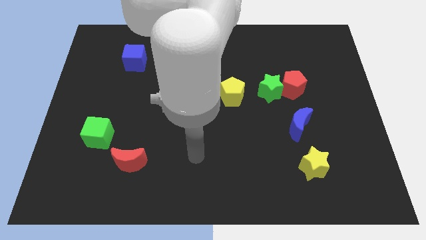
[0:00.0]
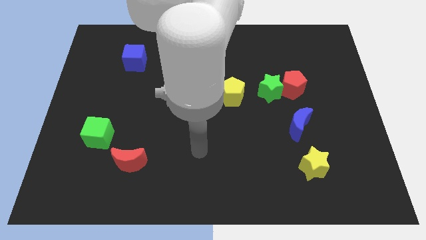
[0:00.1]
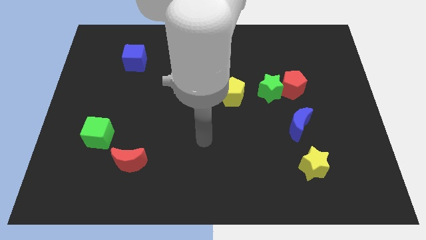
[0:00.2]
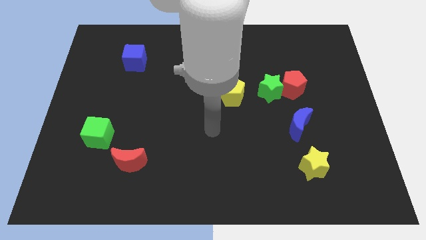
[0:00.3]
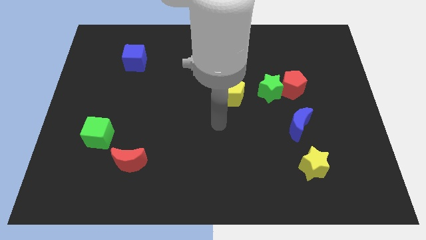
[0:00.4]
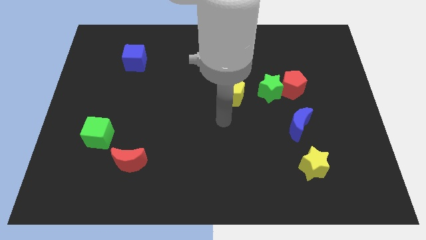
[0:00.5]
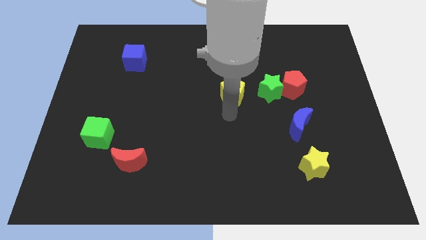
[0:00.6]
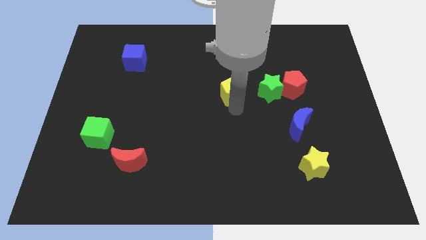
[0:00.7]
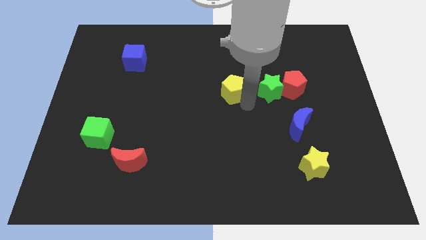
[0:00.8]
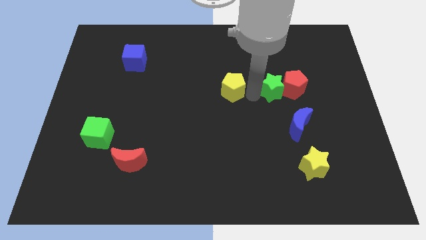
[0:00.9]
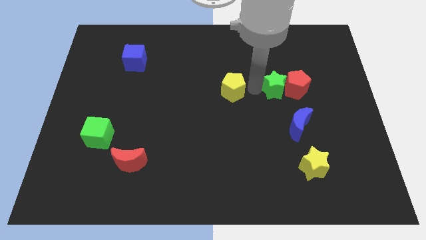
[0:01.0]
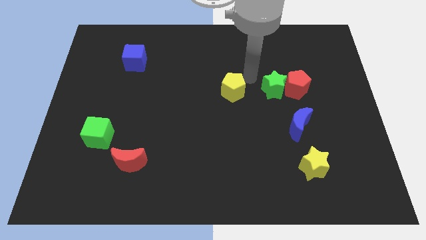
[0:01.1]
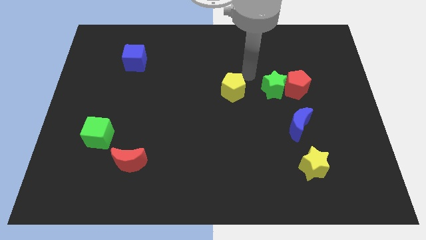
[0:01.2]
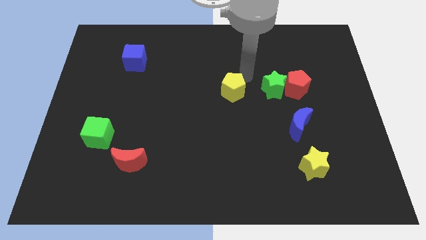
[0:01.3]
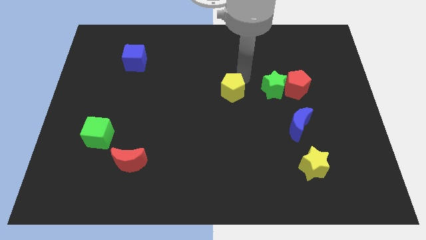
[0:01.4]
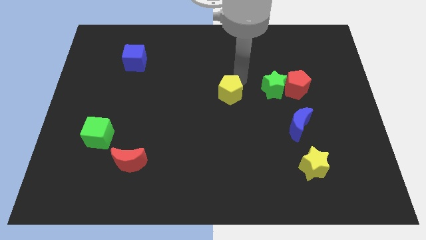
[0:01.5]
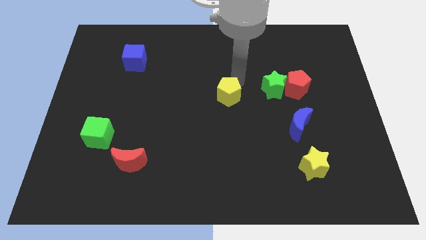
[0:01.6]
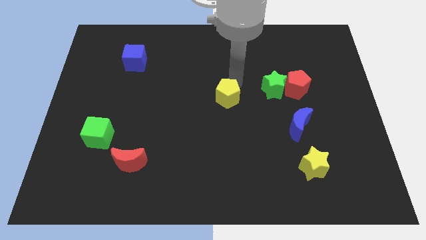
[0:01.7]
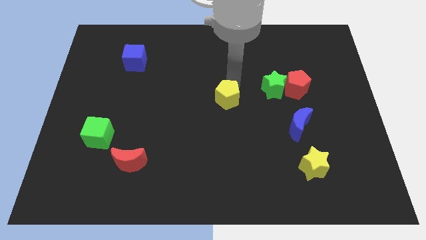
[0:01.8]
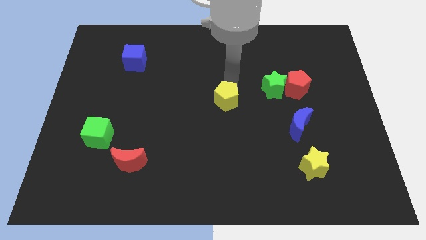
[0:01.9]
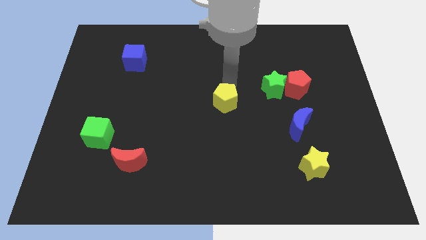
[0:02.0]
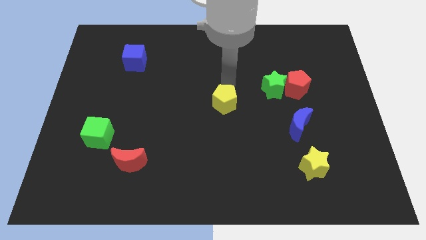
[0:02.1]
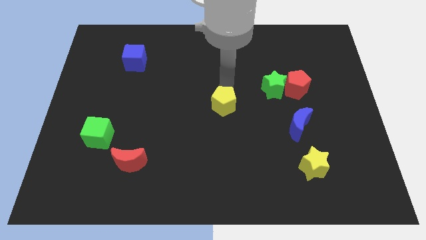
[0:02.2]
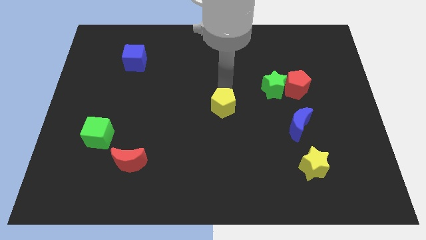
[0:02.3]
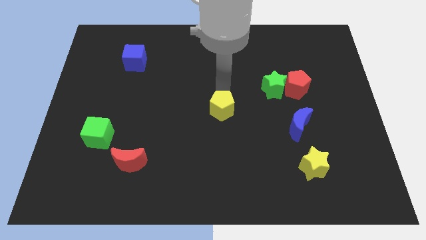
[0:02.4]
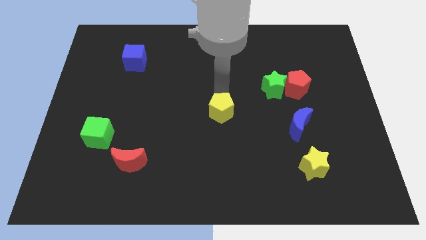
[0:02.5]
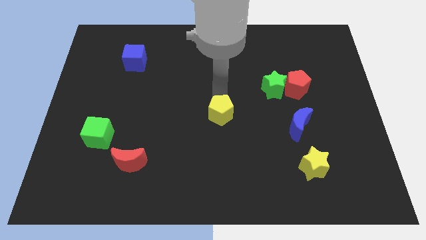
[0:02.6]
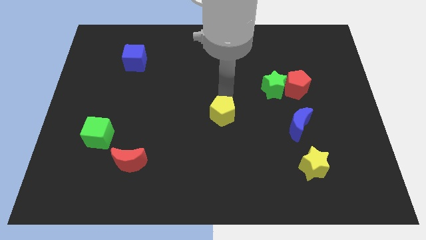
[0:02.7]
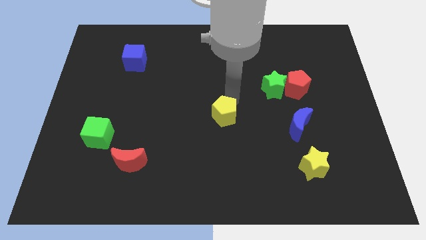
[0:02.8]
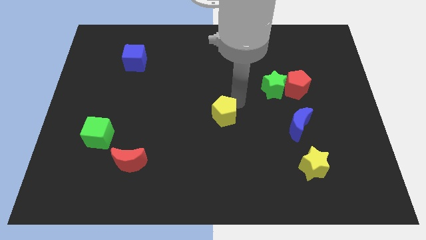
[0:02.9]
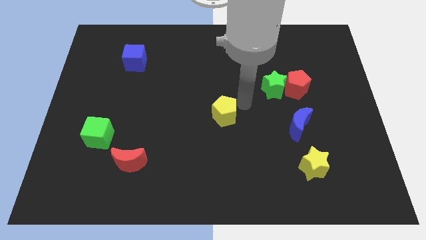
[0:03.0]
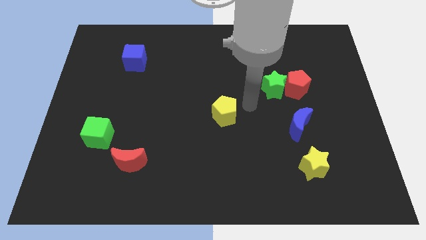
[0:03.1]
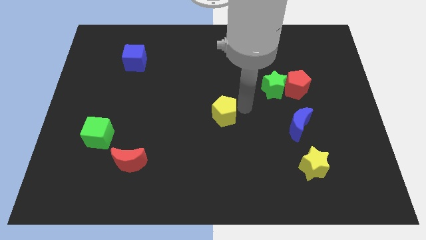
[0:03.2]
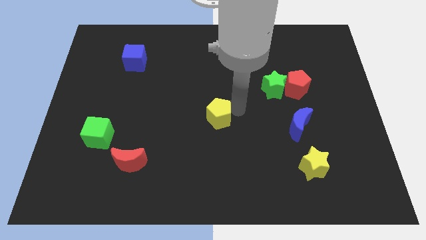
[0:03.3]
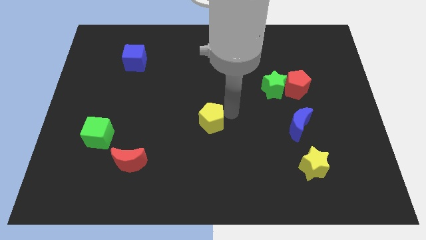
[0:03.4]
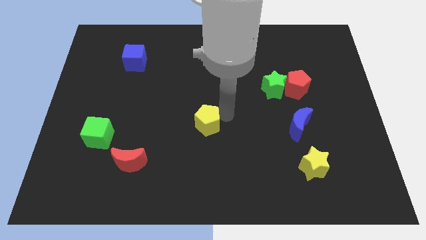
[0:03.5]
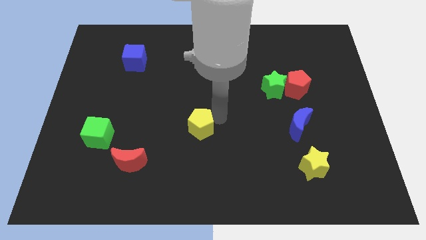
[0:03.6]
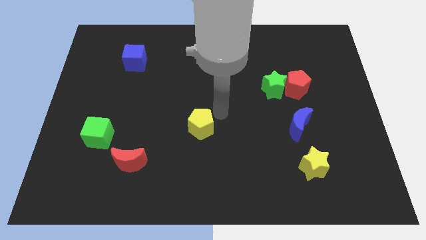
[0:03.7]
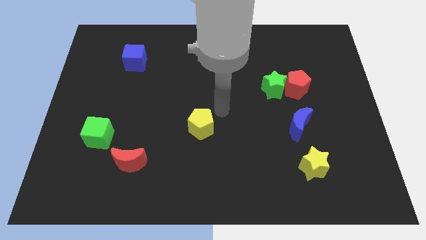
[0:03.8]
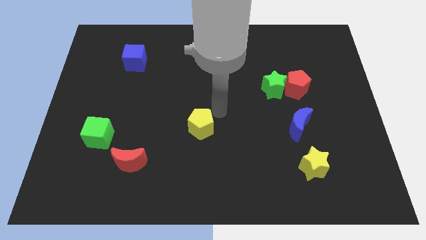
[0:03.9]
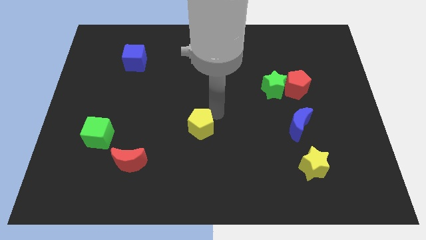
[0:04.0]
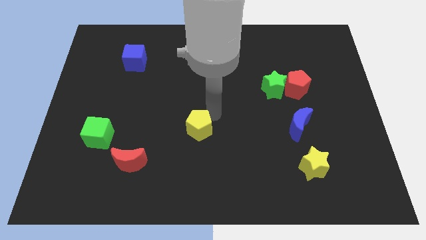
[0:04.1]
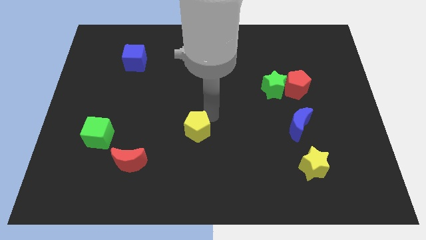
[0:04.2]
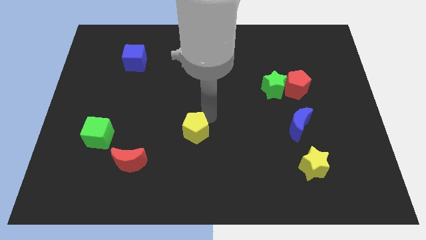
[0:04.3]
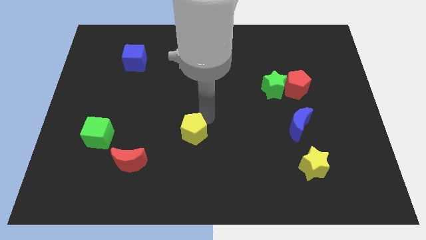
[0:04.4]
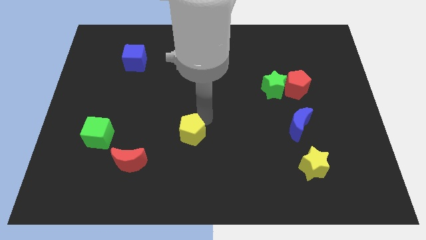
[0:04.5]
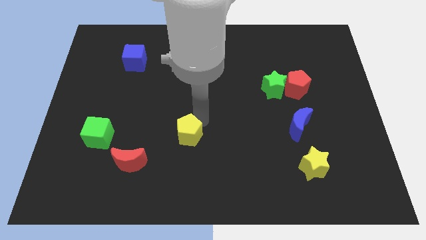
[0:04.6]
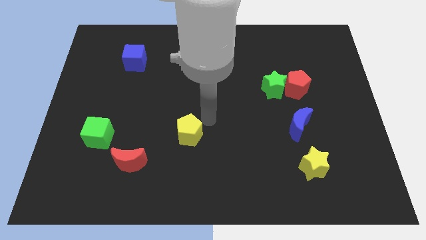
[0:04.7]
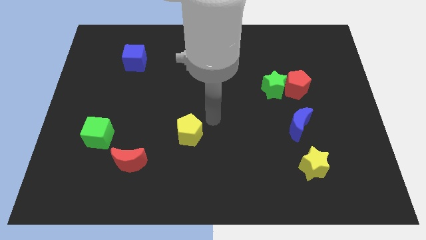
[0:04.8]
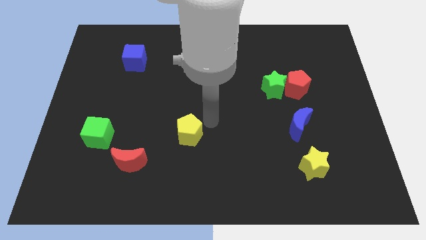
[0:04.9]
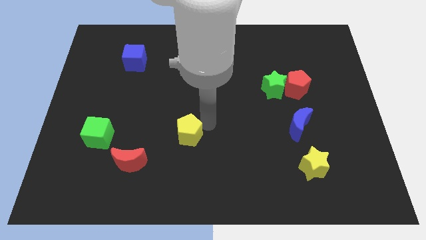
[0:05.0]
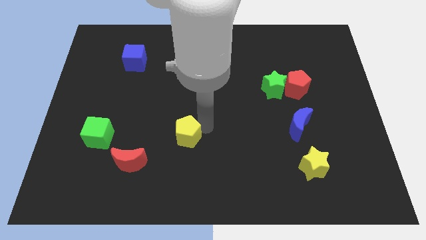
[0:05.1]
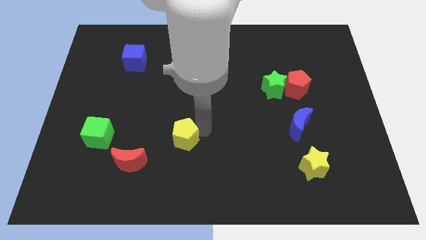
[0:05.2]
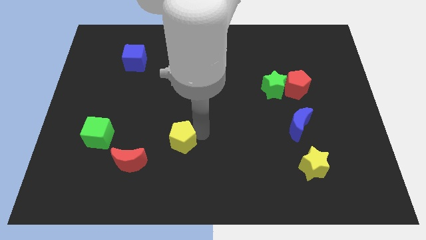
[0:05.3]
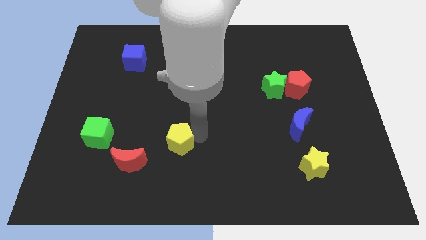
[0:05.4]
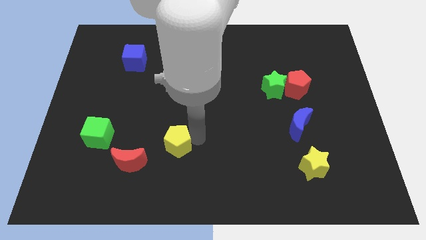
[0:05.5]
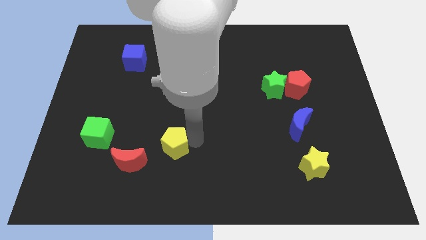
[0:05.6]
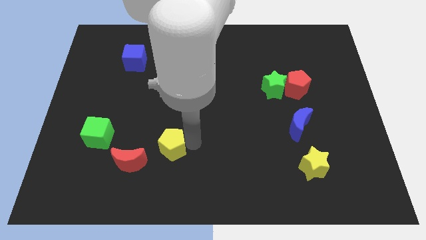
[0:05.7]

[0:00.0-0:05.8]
push the yellow pentagon downwards and then to the left

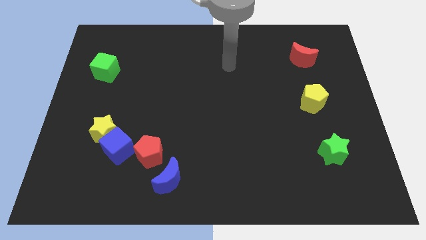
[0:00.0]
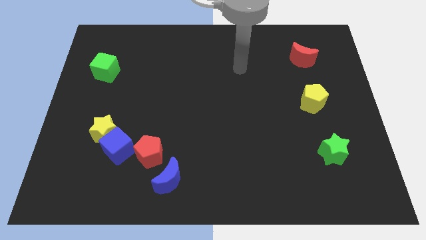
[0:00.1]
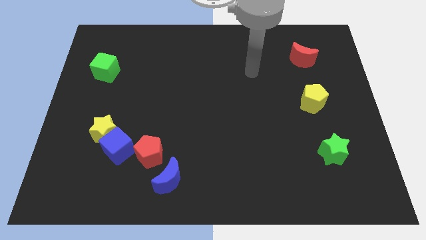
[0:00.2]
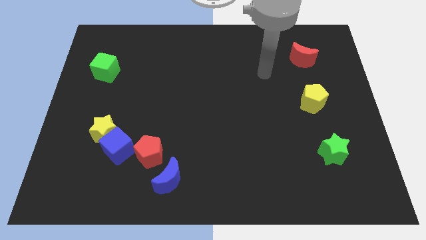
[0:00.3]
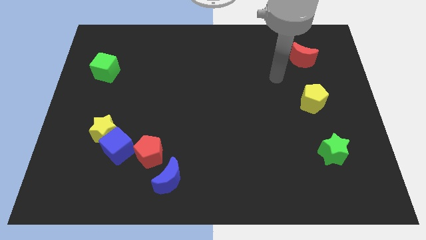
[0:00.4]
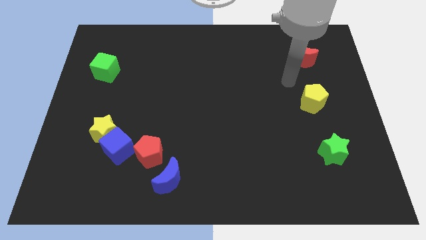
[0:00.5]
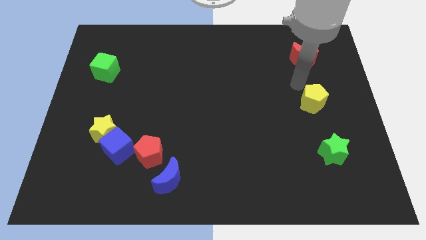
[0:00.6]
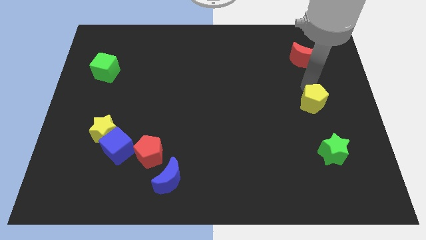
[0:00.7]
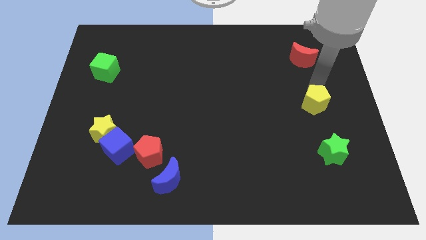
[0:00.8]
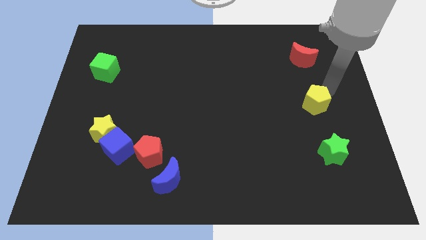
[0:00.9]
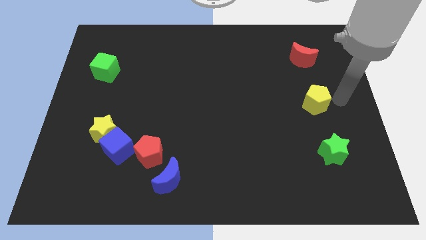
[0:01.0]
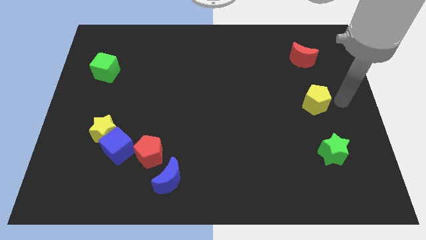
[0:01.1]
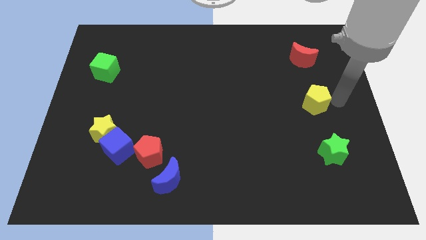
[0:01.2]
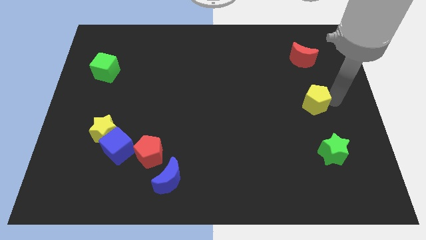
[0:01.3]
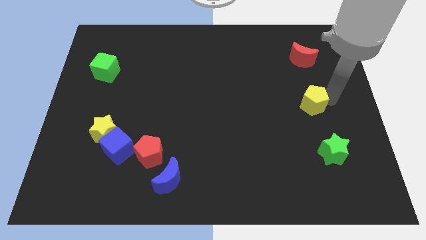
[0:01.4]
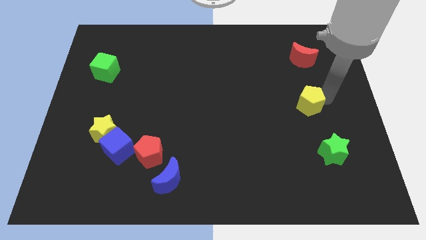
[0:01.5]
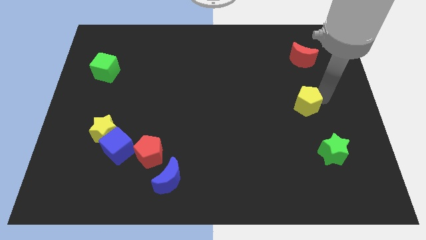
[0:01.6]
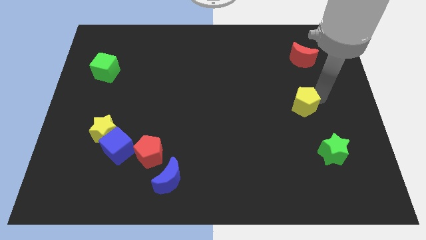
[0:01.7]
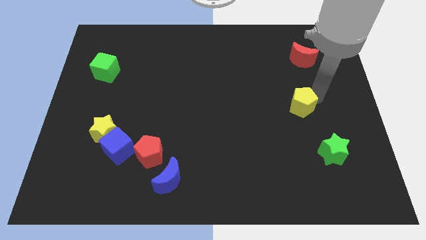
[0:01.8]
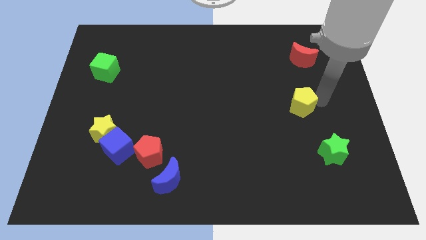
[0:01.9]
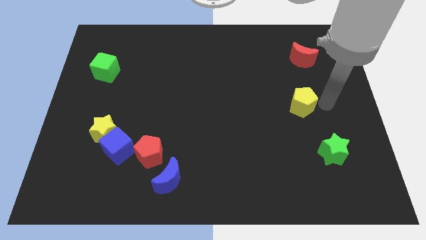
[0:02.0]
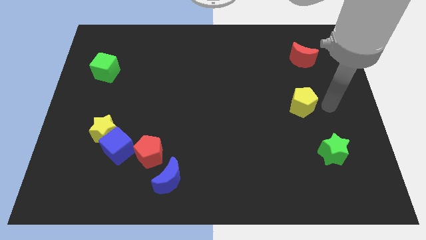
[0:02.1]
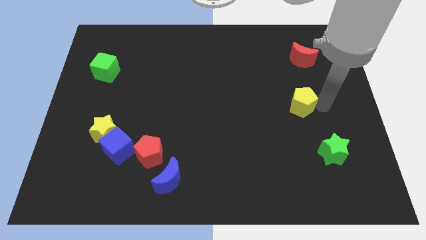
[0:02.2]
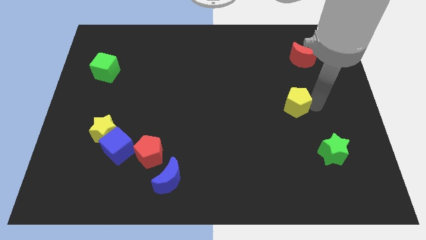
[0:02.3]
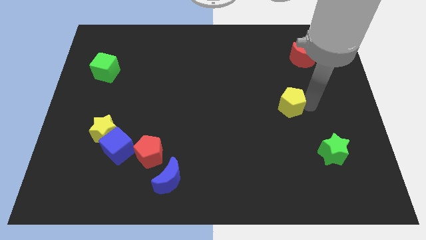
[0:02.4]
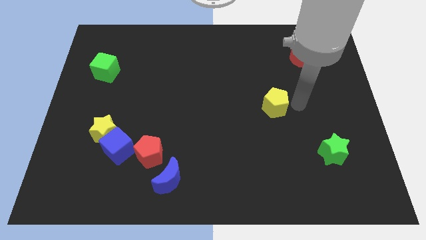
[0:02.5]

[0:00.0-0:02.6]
slide the yellow pentagon to the left somewhat
